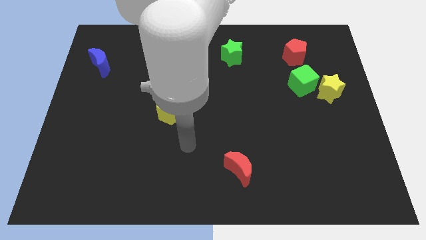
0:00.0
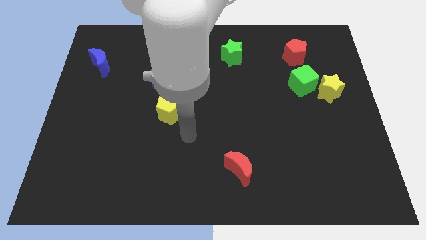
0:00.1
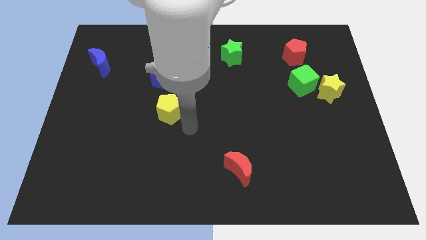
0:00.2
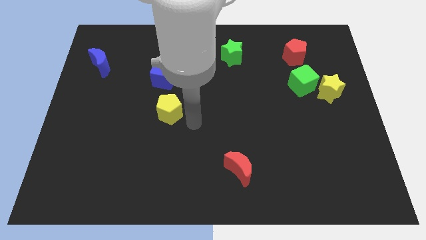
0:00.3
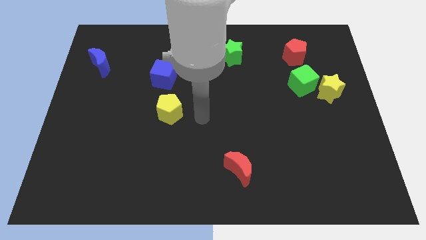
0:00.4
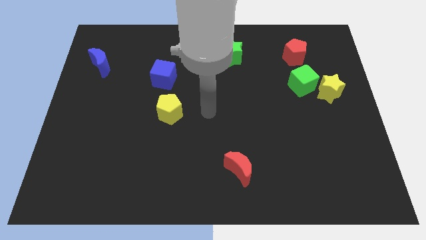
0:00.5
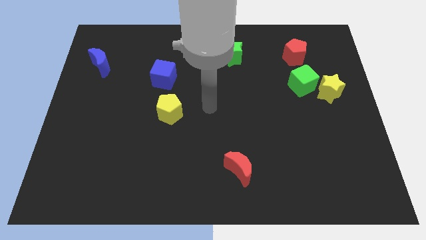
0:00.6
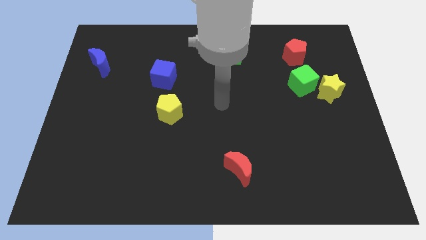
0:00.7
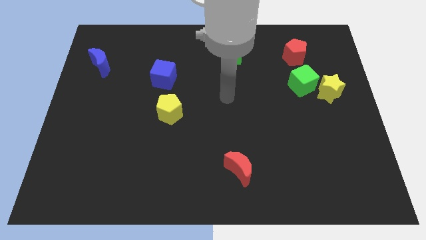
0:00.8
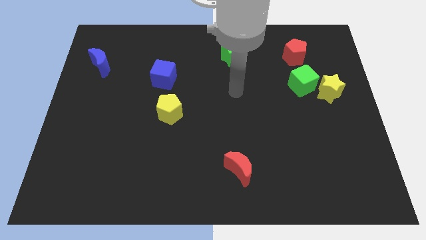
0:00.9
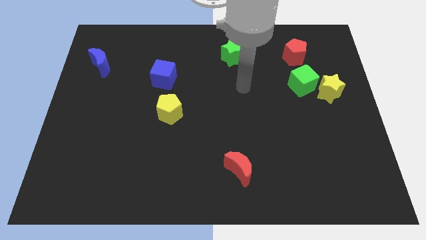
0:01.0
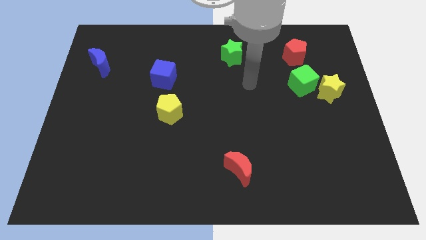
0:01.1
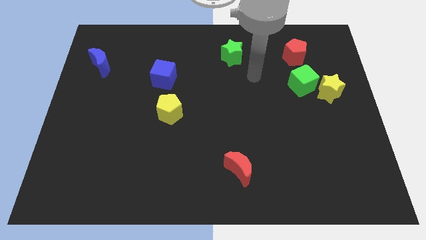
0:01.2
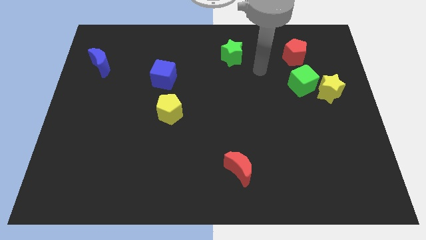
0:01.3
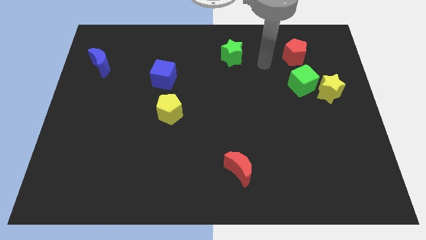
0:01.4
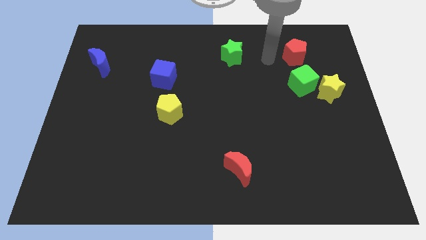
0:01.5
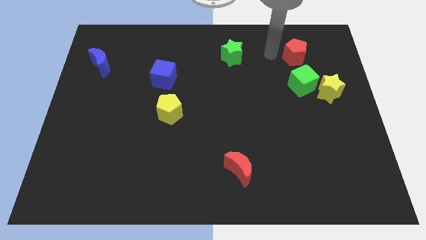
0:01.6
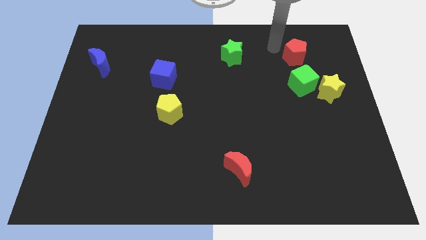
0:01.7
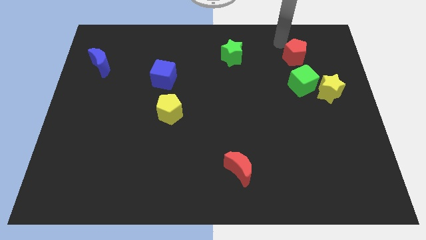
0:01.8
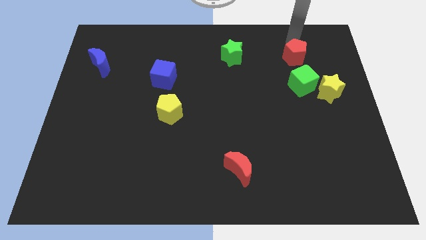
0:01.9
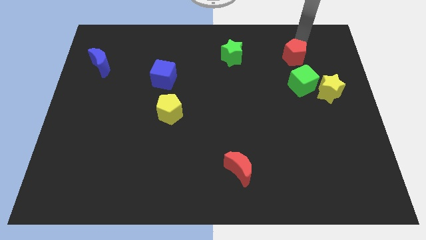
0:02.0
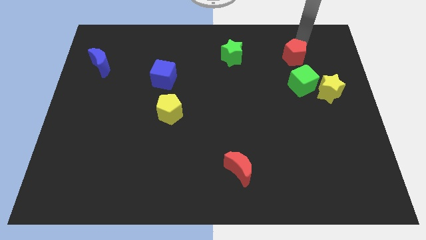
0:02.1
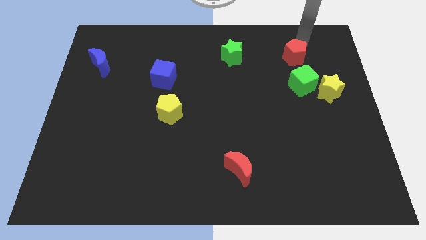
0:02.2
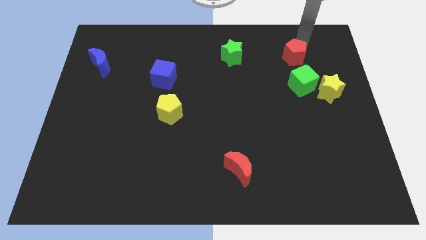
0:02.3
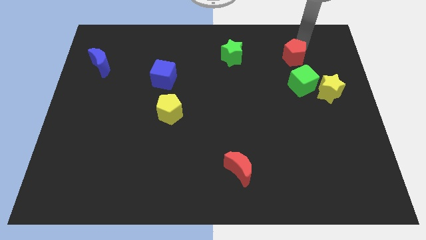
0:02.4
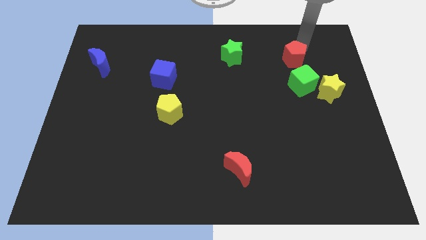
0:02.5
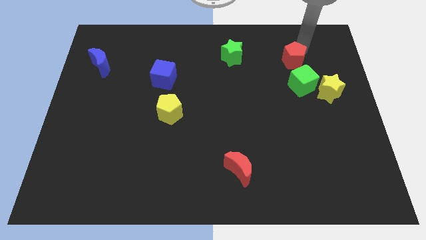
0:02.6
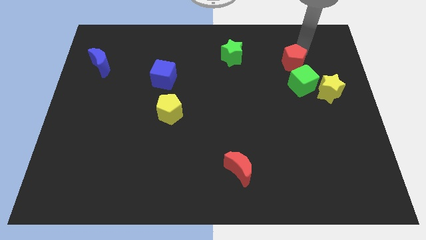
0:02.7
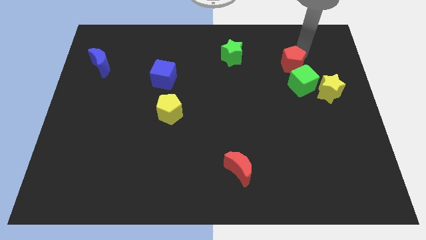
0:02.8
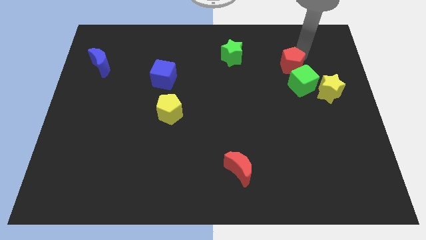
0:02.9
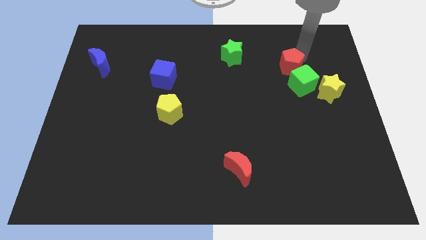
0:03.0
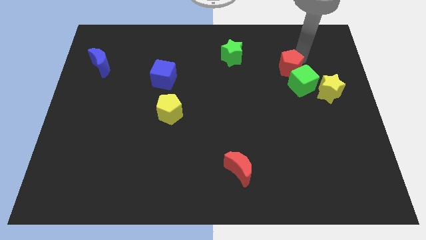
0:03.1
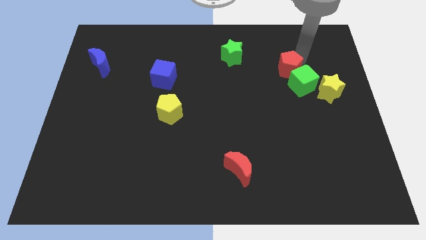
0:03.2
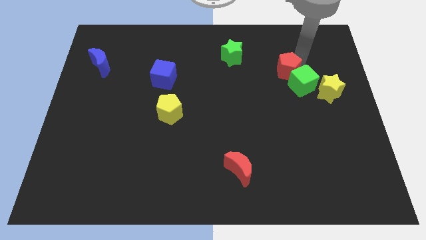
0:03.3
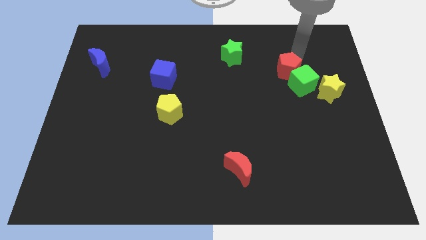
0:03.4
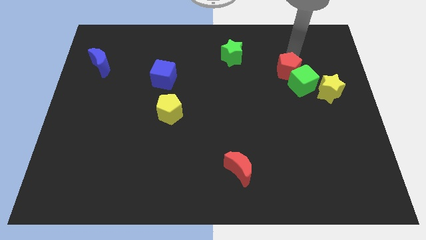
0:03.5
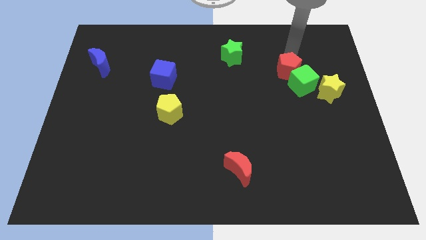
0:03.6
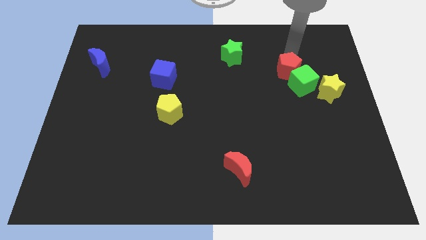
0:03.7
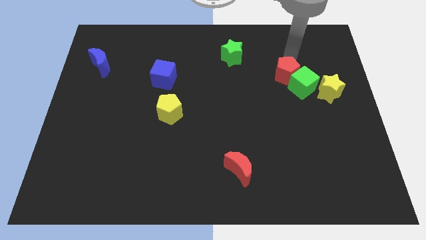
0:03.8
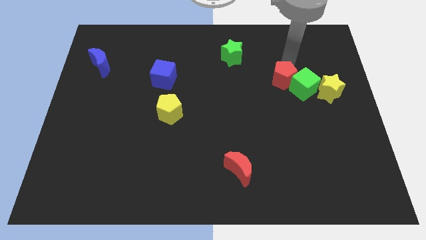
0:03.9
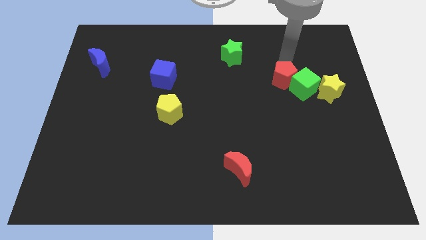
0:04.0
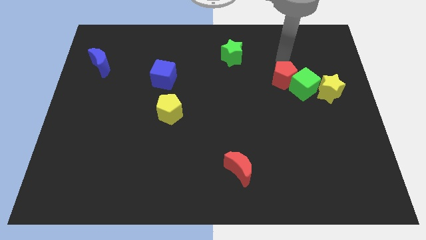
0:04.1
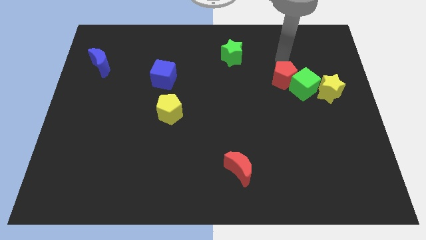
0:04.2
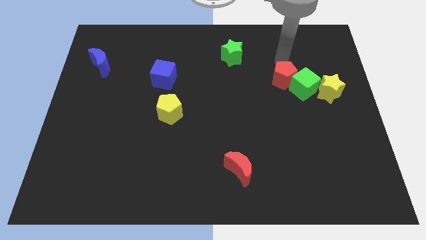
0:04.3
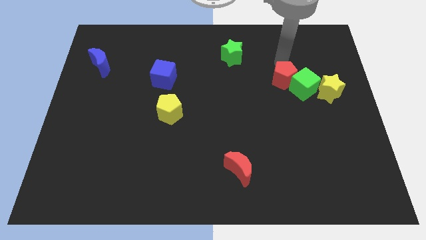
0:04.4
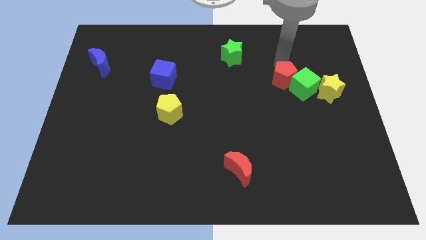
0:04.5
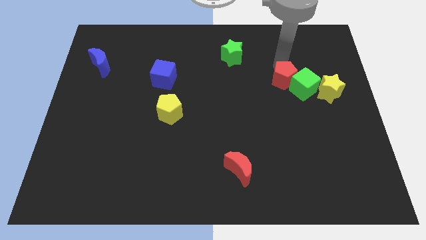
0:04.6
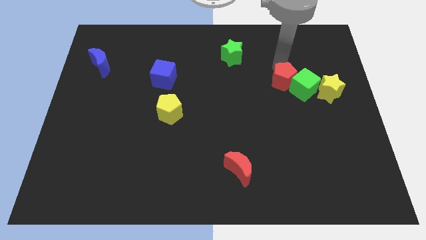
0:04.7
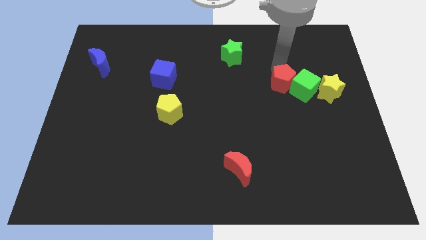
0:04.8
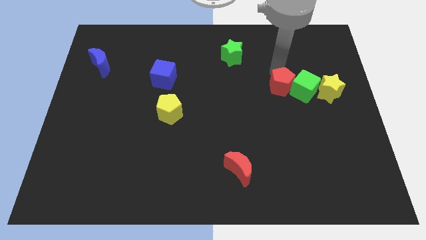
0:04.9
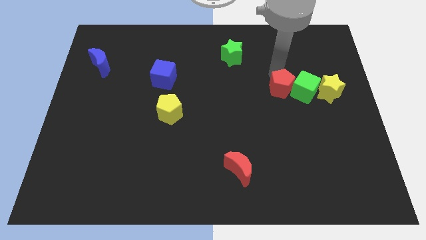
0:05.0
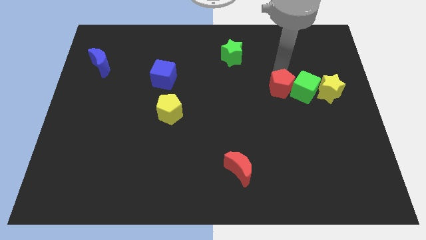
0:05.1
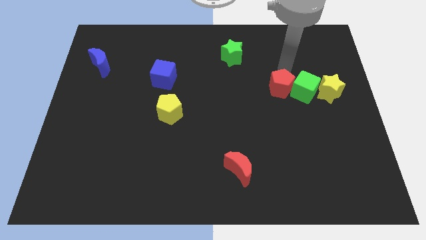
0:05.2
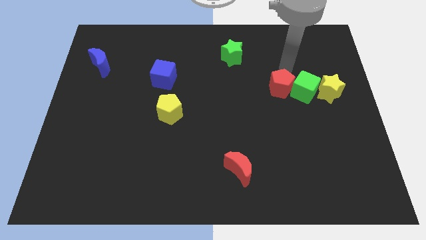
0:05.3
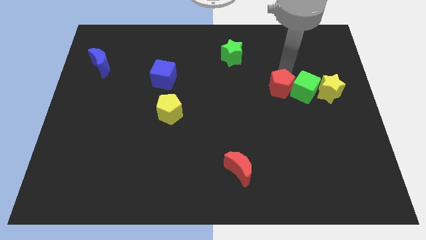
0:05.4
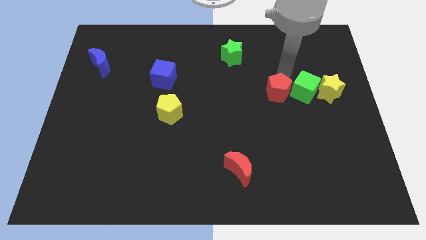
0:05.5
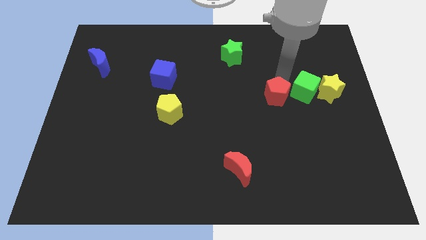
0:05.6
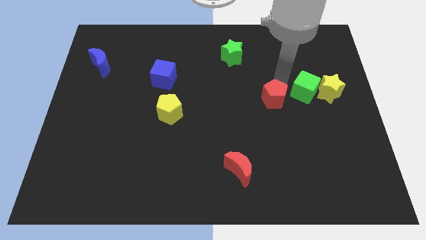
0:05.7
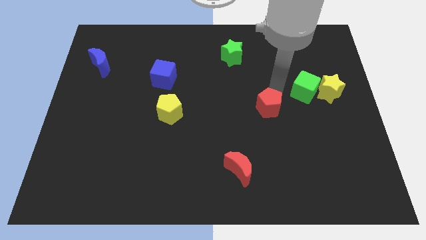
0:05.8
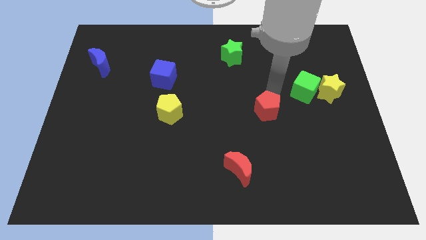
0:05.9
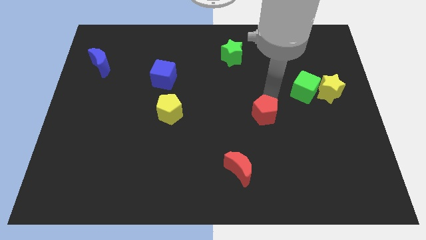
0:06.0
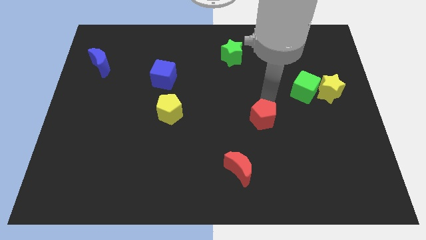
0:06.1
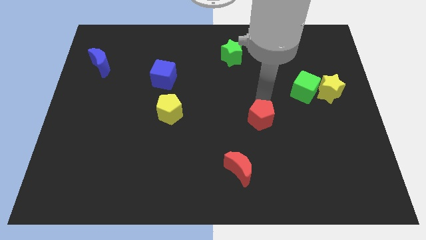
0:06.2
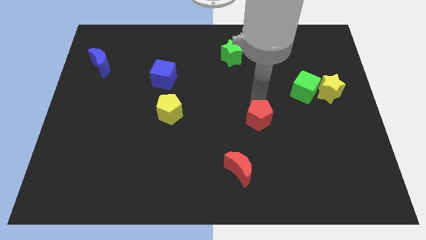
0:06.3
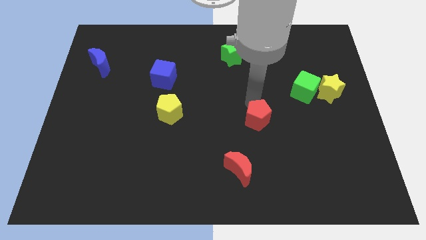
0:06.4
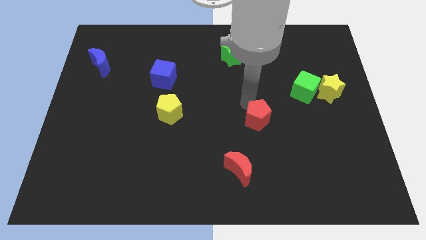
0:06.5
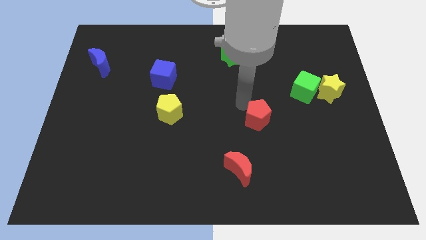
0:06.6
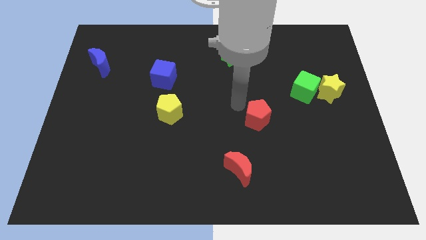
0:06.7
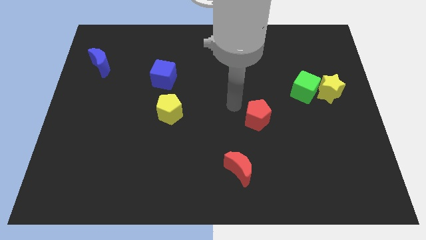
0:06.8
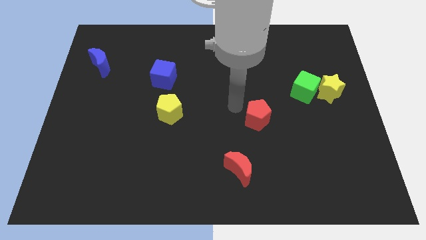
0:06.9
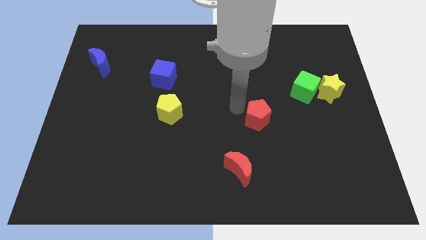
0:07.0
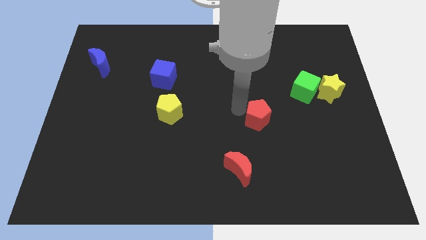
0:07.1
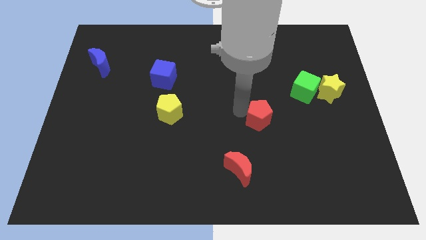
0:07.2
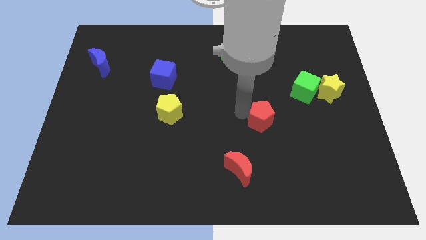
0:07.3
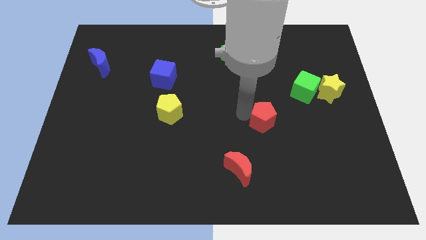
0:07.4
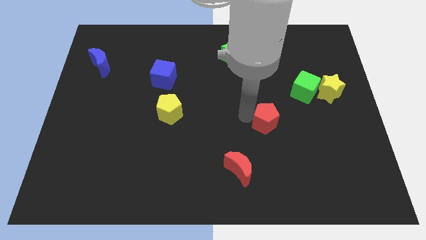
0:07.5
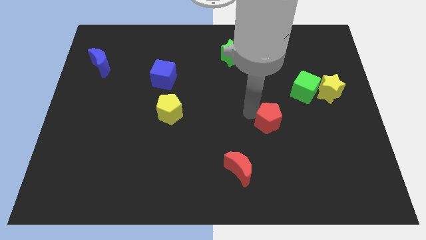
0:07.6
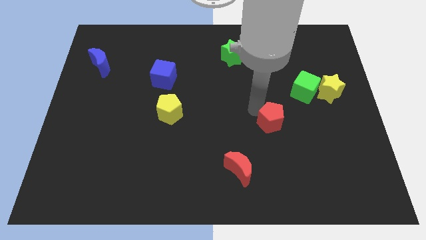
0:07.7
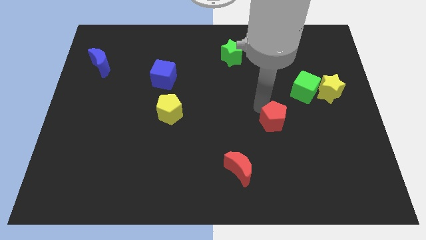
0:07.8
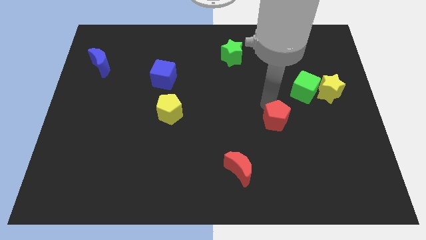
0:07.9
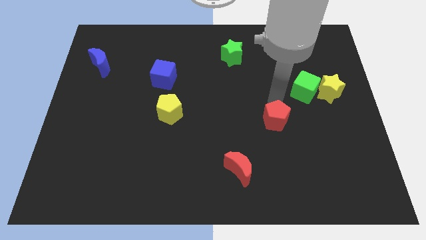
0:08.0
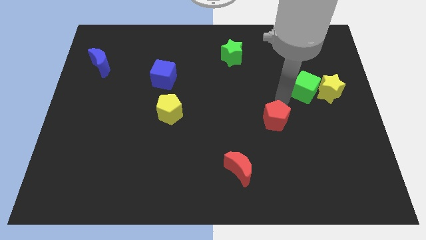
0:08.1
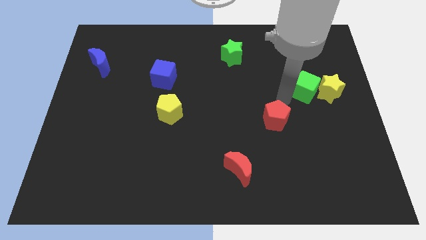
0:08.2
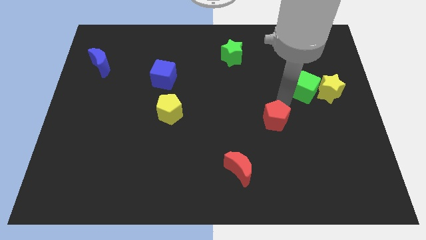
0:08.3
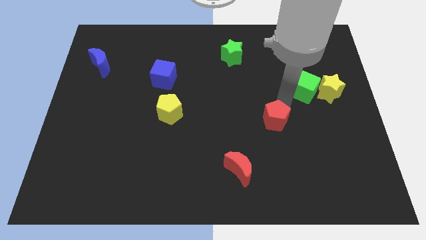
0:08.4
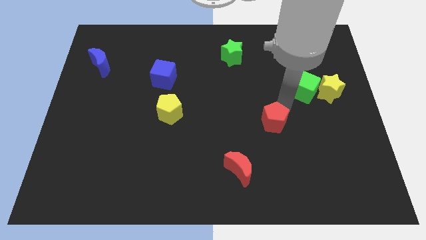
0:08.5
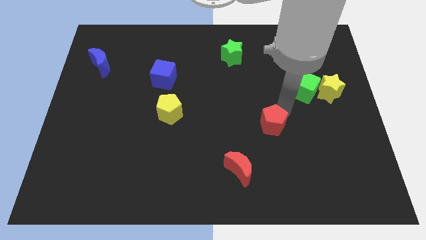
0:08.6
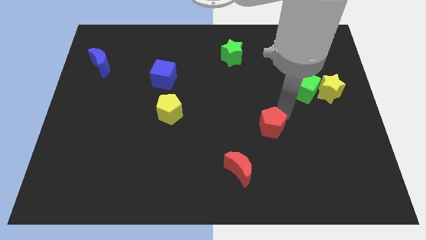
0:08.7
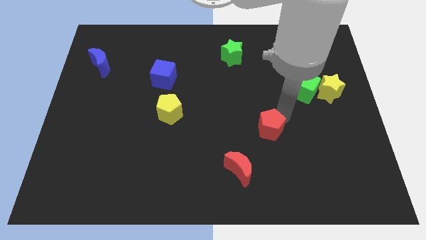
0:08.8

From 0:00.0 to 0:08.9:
move the red pentagon diagonally up and to the right of the red moon
